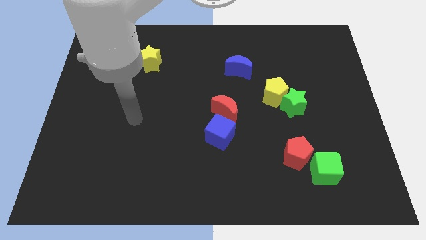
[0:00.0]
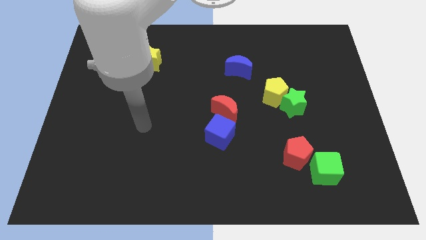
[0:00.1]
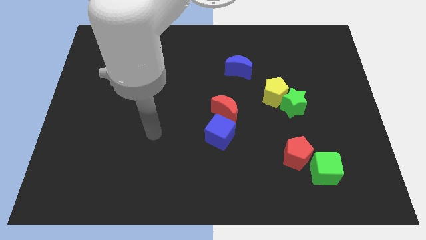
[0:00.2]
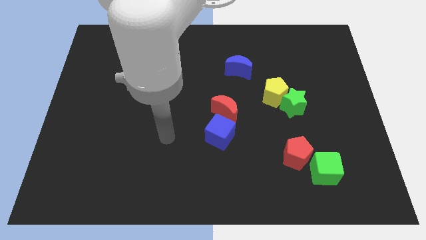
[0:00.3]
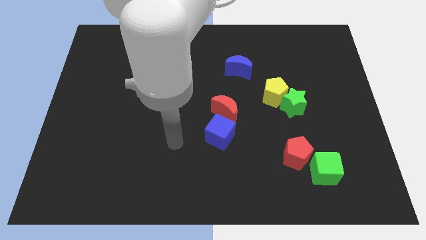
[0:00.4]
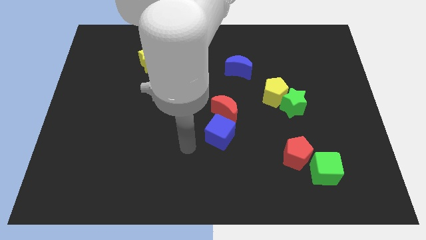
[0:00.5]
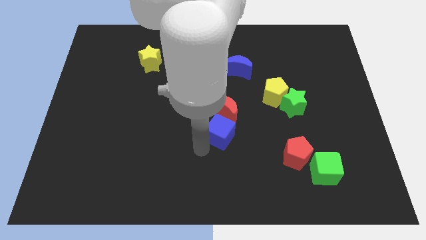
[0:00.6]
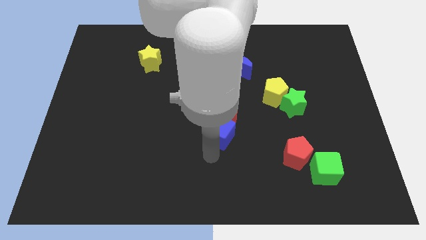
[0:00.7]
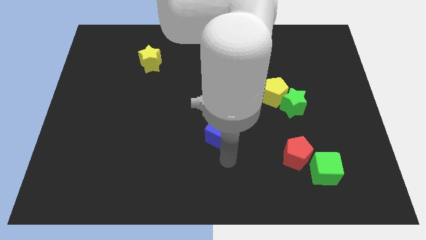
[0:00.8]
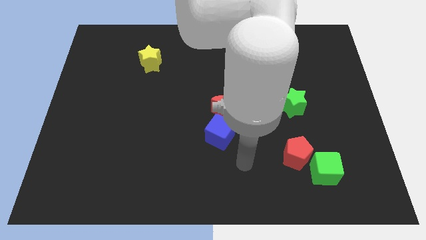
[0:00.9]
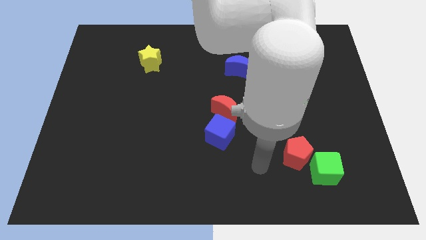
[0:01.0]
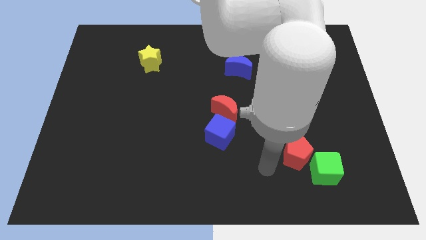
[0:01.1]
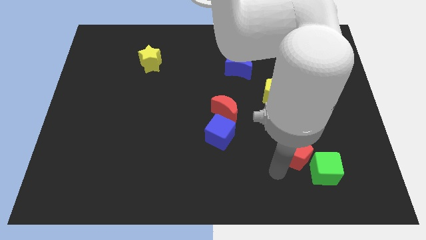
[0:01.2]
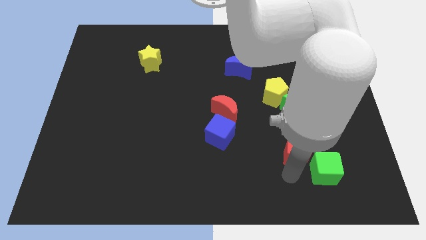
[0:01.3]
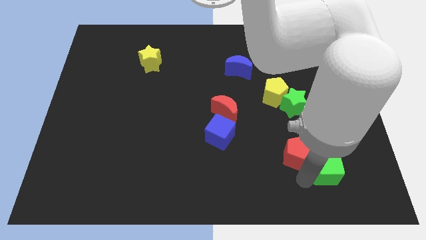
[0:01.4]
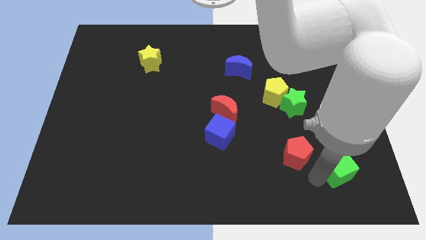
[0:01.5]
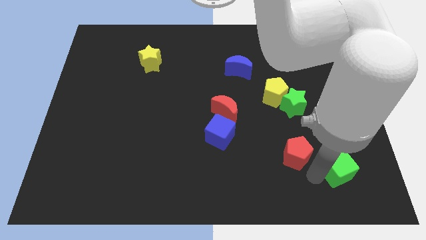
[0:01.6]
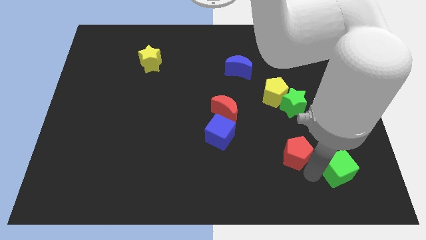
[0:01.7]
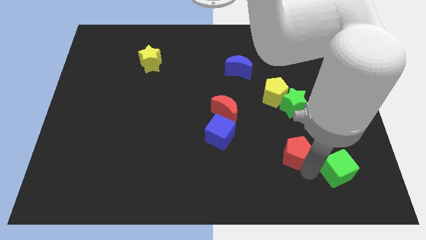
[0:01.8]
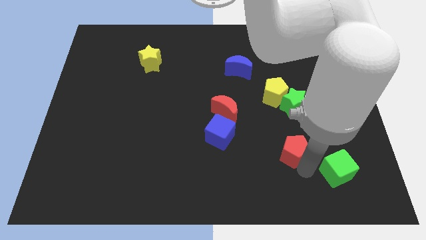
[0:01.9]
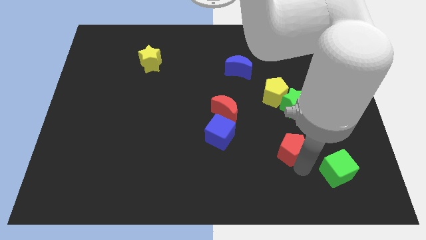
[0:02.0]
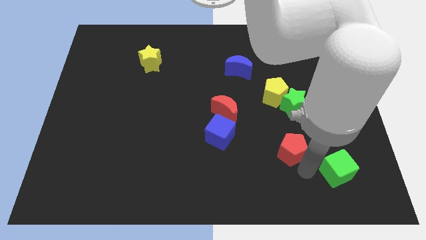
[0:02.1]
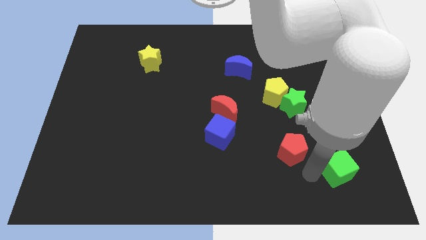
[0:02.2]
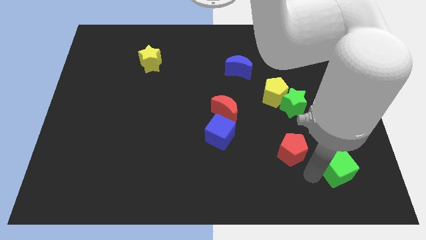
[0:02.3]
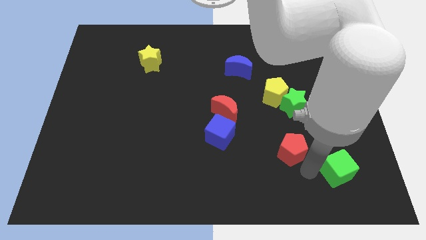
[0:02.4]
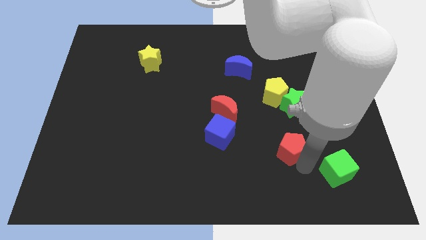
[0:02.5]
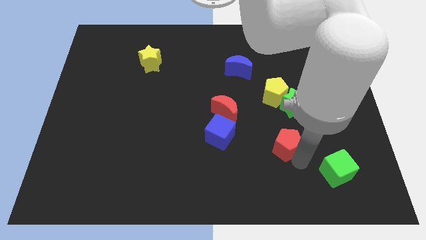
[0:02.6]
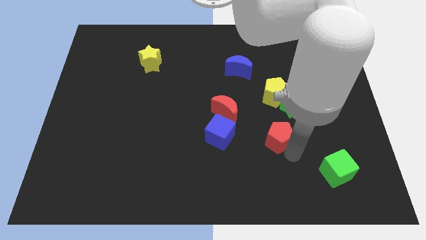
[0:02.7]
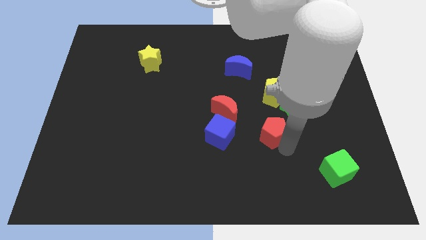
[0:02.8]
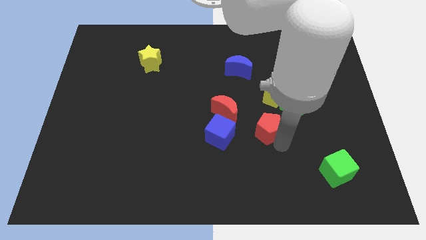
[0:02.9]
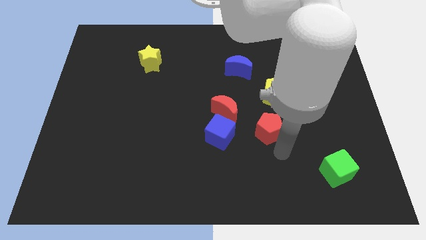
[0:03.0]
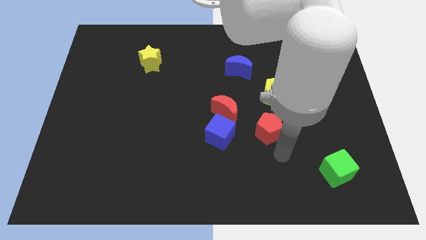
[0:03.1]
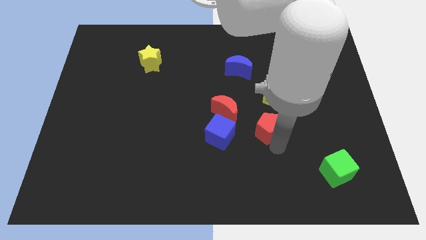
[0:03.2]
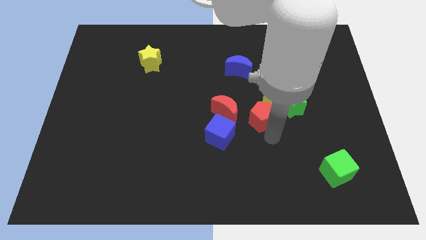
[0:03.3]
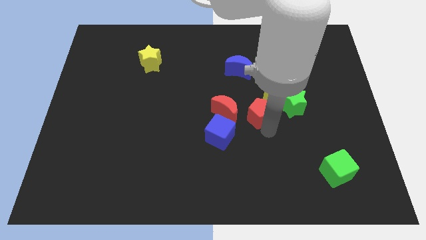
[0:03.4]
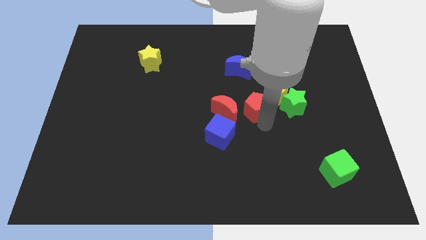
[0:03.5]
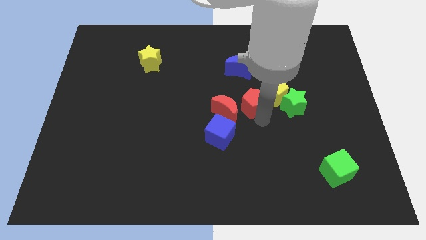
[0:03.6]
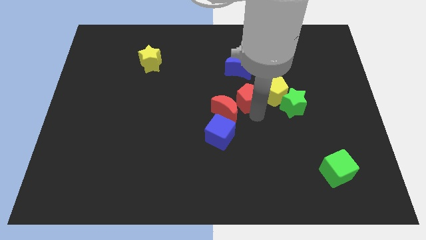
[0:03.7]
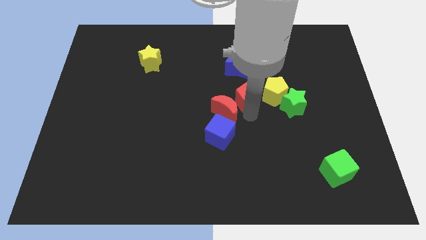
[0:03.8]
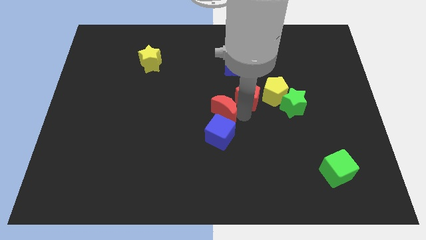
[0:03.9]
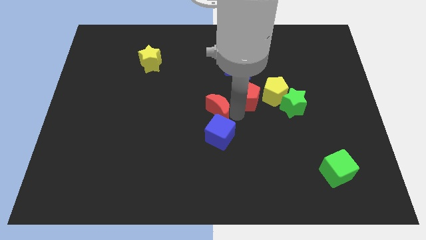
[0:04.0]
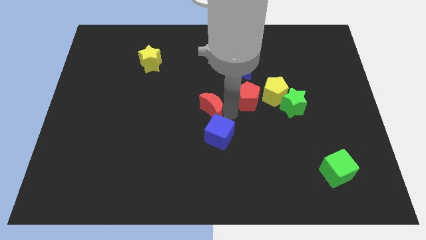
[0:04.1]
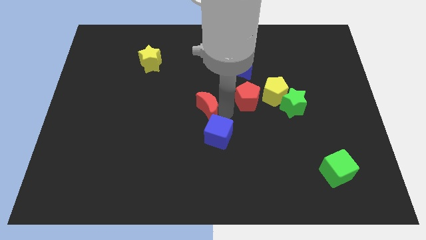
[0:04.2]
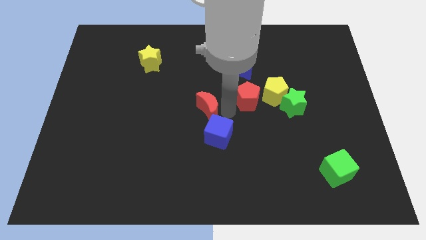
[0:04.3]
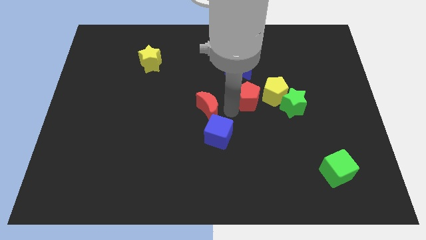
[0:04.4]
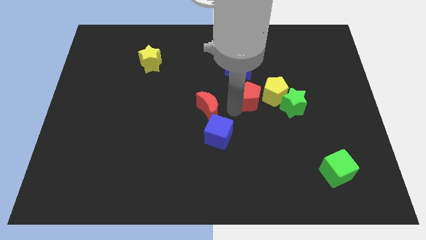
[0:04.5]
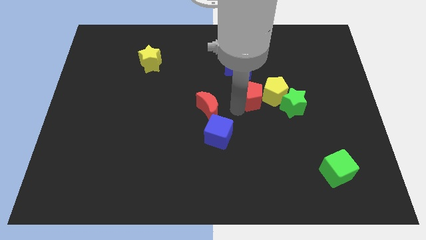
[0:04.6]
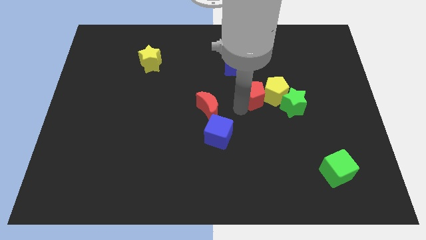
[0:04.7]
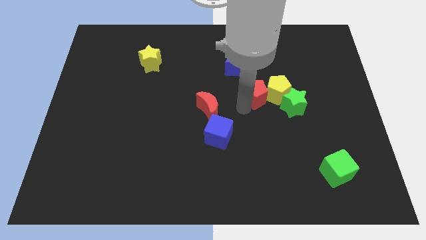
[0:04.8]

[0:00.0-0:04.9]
put the red pentagon diagonally up and to the left of the green star

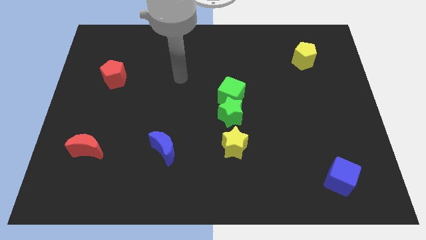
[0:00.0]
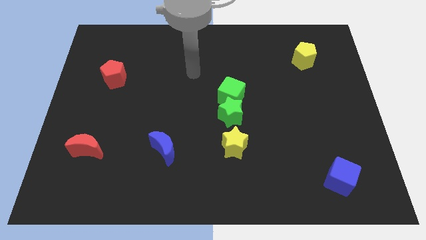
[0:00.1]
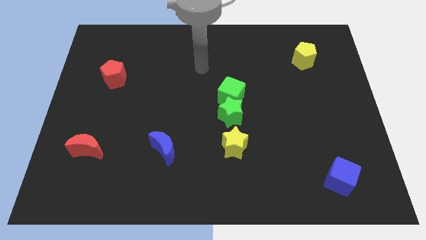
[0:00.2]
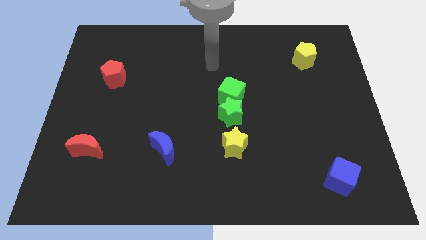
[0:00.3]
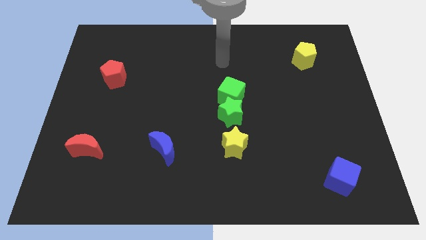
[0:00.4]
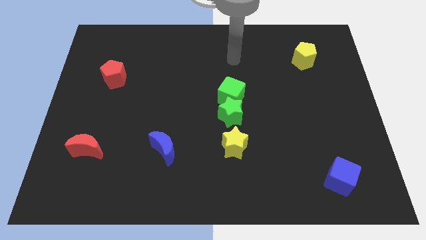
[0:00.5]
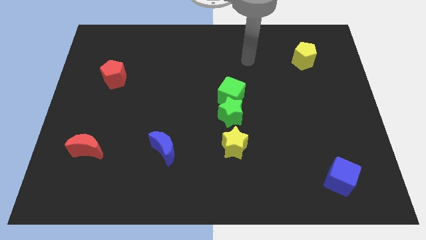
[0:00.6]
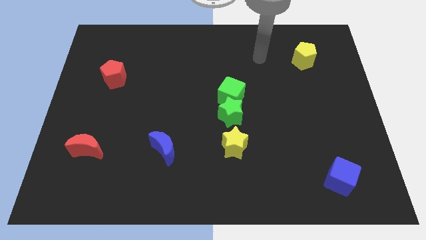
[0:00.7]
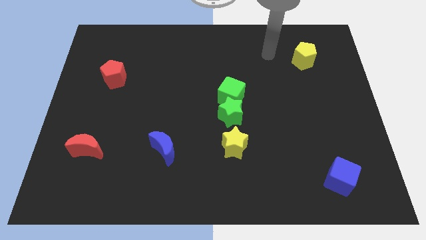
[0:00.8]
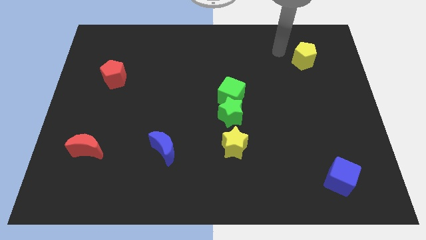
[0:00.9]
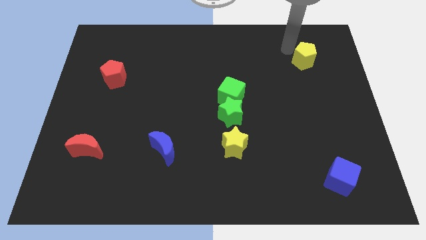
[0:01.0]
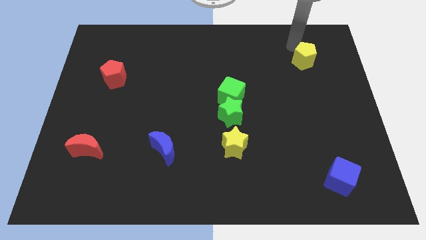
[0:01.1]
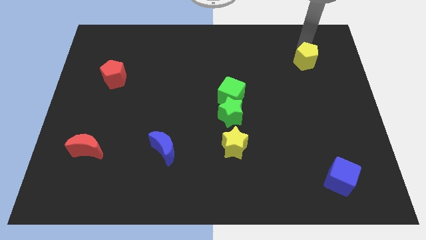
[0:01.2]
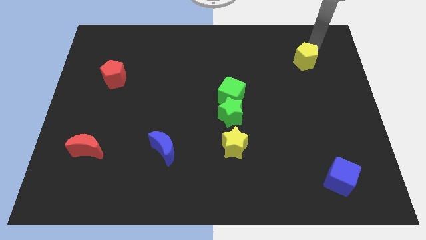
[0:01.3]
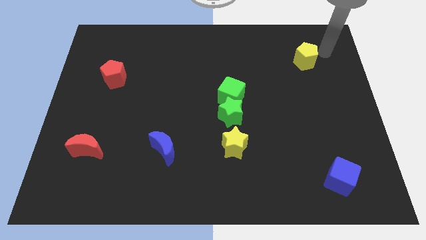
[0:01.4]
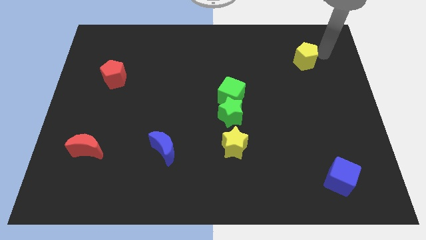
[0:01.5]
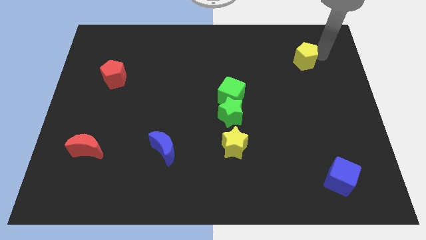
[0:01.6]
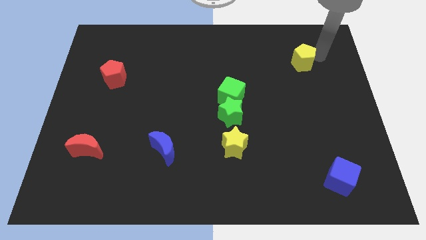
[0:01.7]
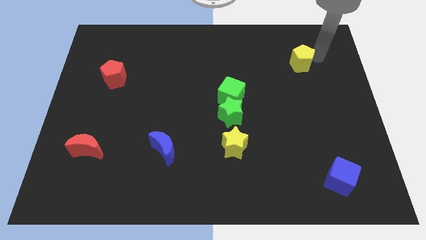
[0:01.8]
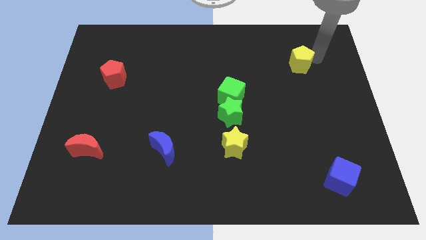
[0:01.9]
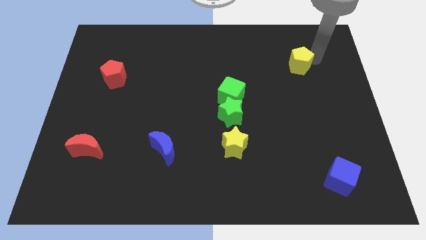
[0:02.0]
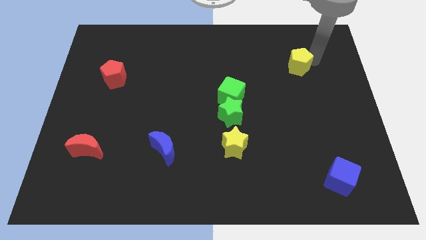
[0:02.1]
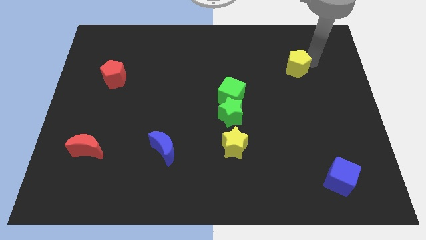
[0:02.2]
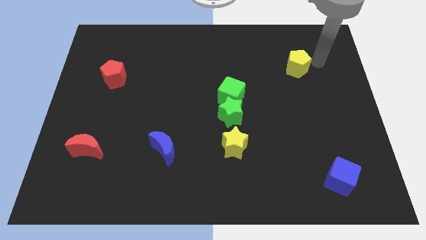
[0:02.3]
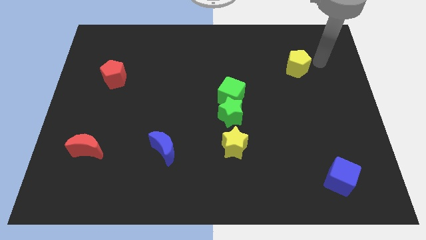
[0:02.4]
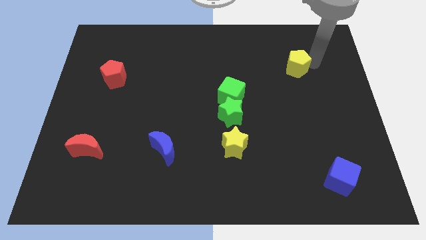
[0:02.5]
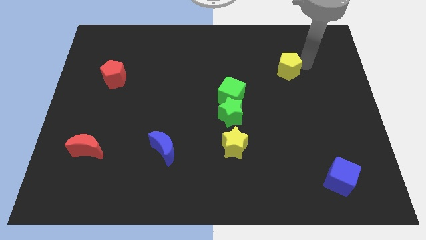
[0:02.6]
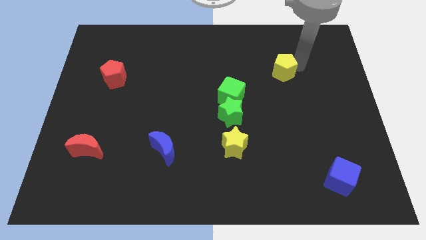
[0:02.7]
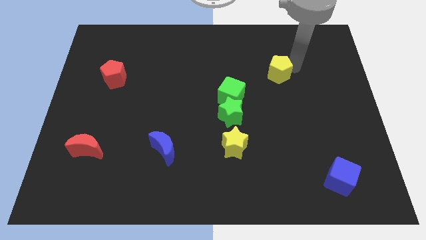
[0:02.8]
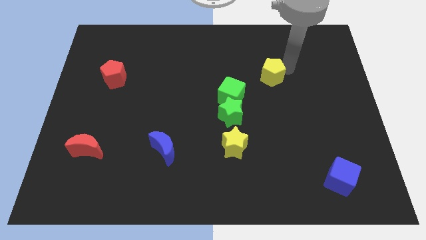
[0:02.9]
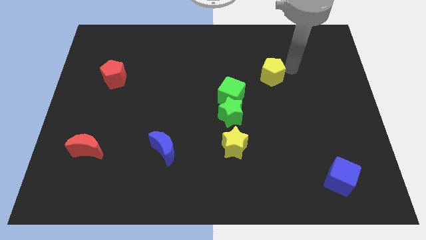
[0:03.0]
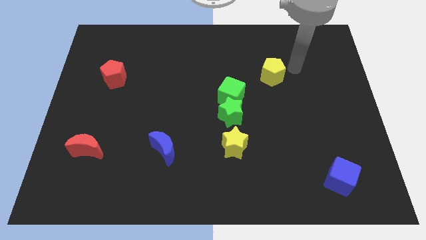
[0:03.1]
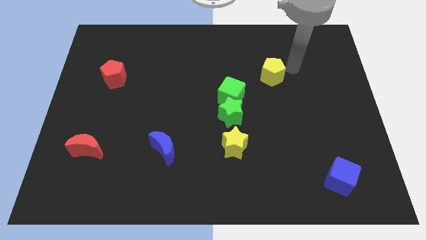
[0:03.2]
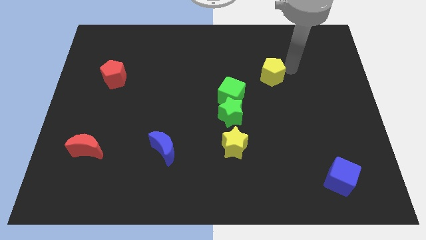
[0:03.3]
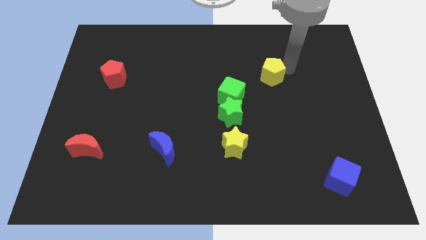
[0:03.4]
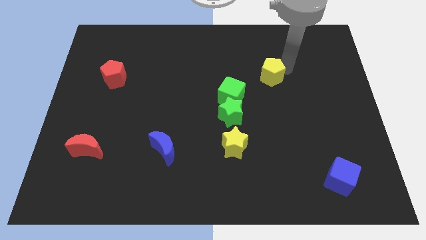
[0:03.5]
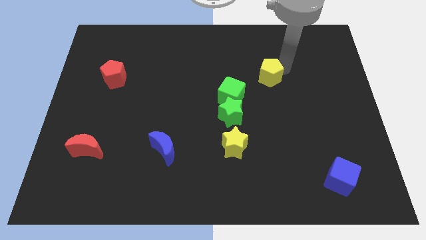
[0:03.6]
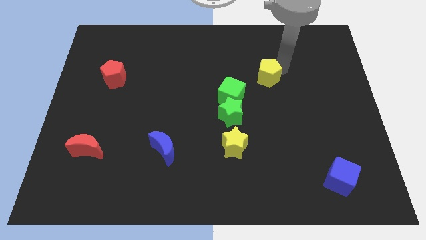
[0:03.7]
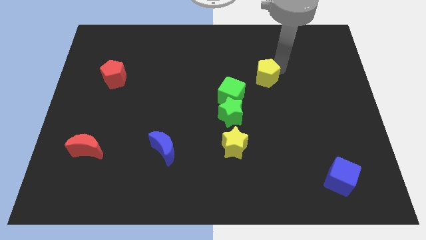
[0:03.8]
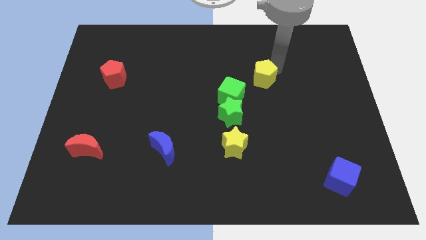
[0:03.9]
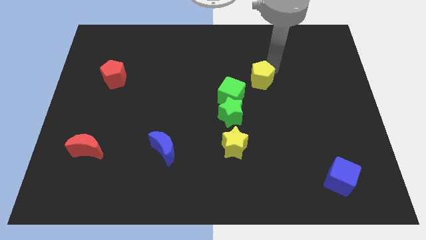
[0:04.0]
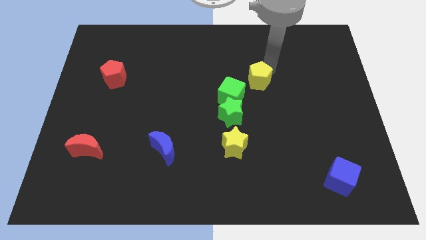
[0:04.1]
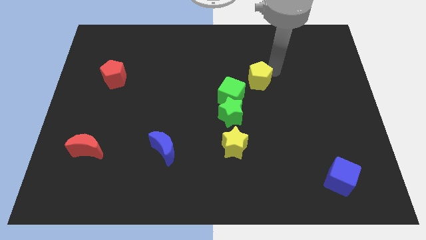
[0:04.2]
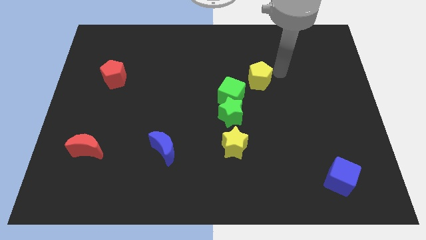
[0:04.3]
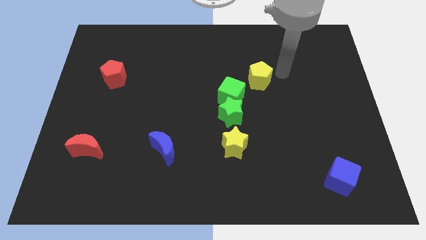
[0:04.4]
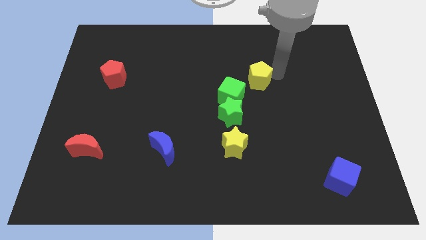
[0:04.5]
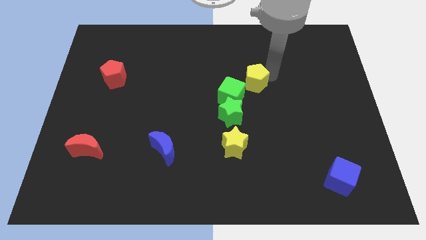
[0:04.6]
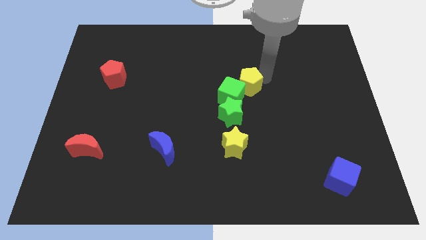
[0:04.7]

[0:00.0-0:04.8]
put the yellow pentagon to the top right of the green star
